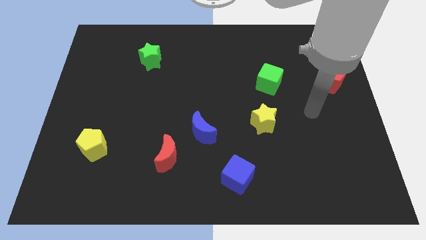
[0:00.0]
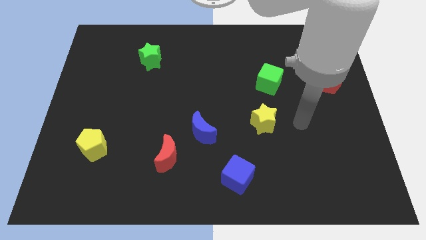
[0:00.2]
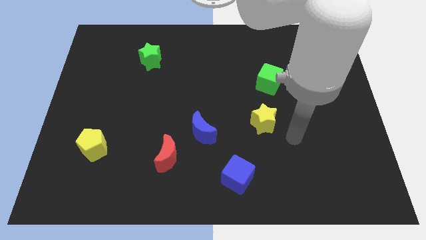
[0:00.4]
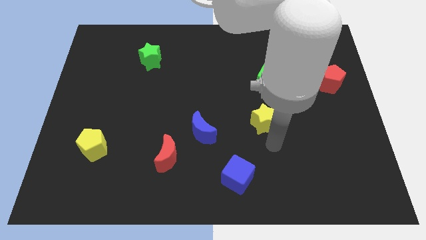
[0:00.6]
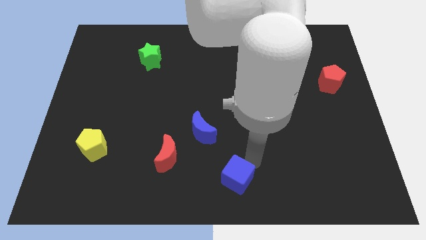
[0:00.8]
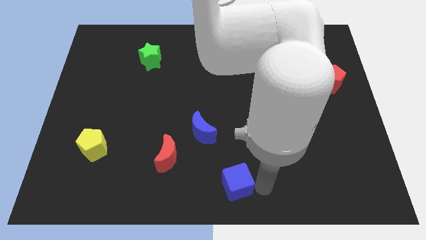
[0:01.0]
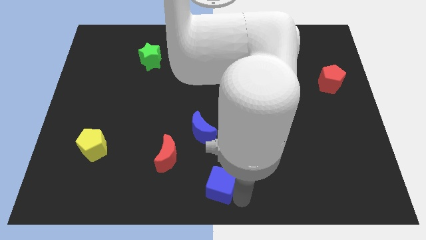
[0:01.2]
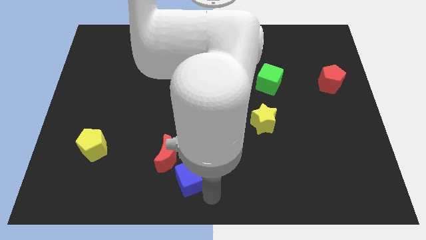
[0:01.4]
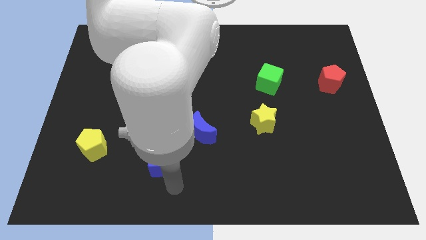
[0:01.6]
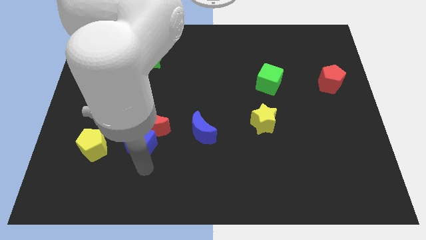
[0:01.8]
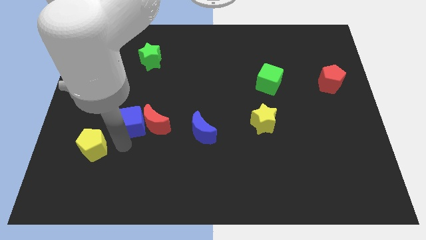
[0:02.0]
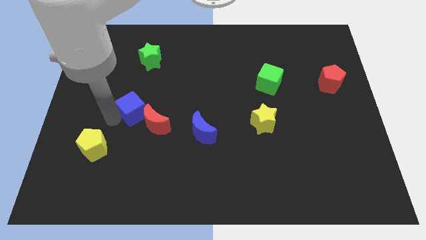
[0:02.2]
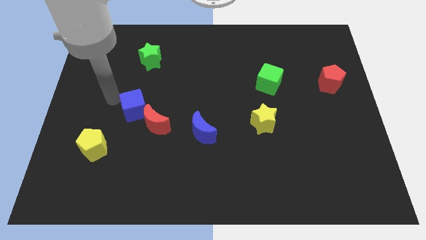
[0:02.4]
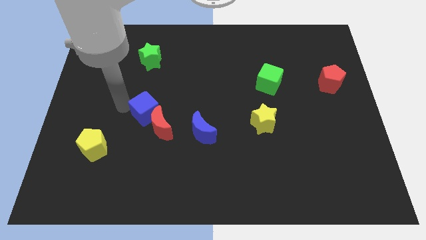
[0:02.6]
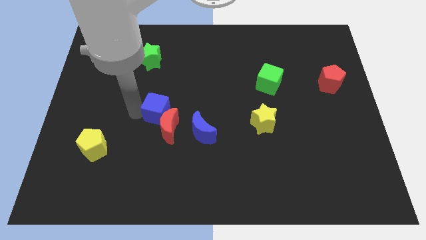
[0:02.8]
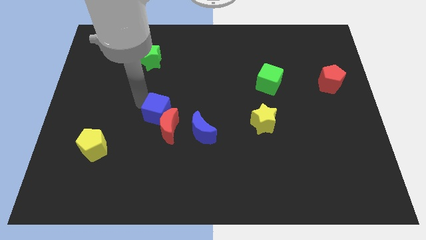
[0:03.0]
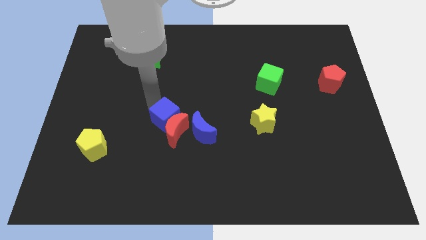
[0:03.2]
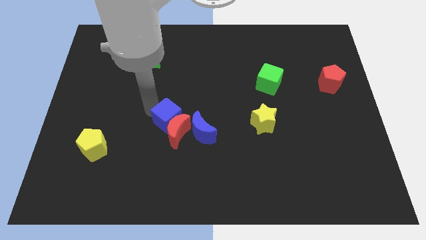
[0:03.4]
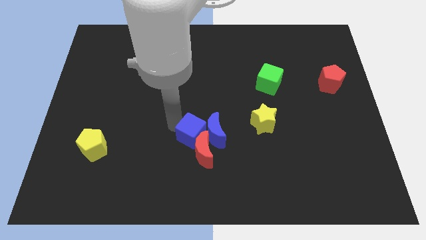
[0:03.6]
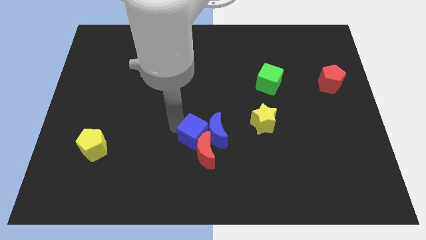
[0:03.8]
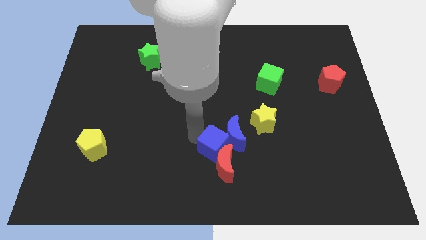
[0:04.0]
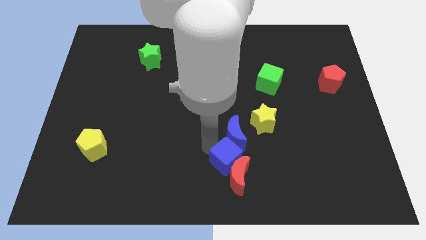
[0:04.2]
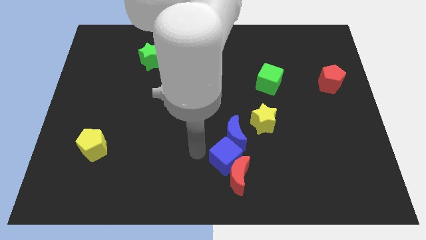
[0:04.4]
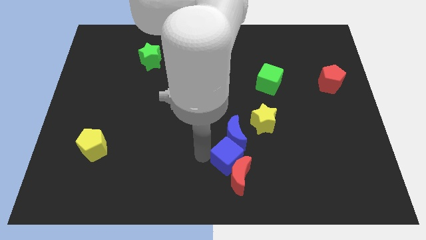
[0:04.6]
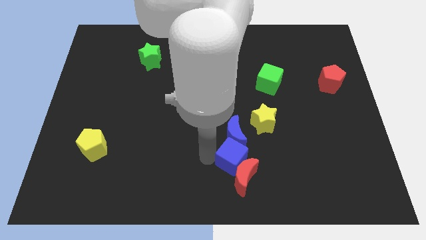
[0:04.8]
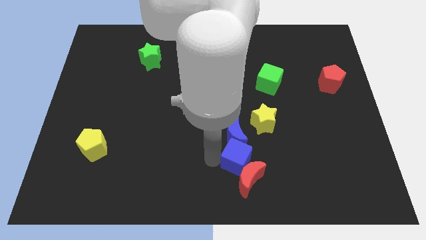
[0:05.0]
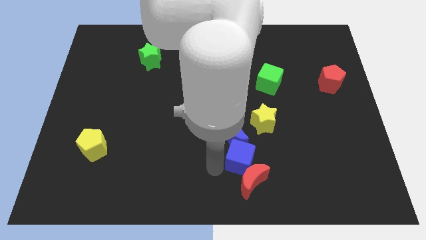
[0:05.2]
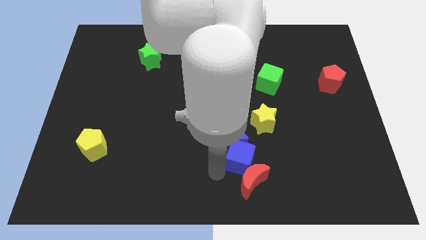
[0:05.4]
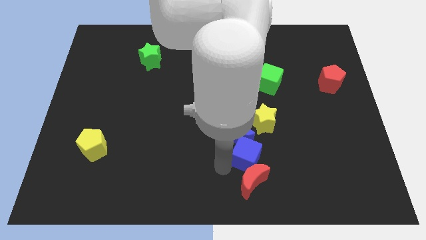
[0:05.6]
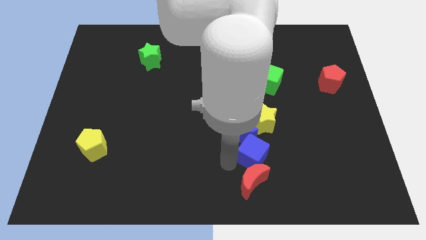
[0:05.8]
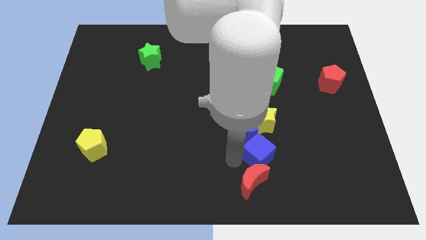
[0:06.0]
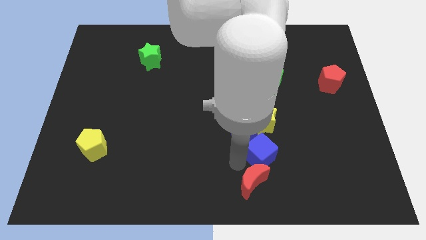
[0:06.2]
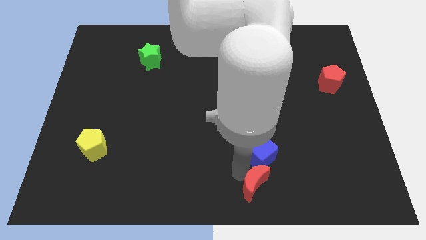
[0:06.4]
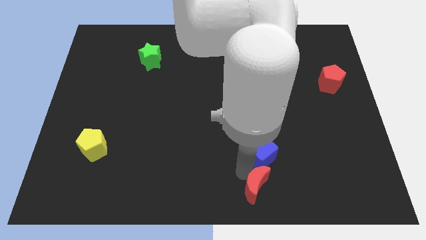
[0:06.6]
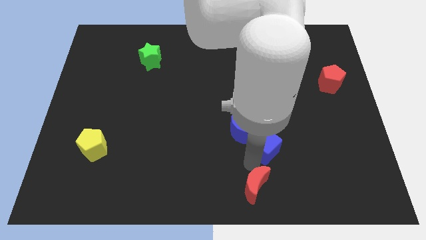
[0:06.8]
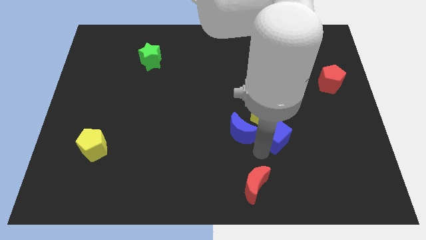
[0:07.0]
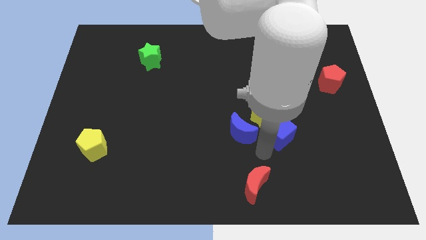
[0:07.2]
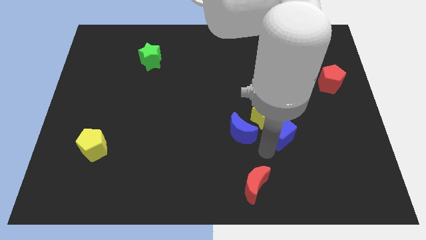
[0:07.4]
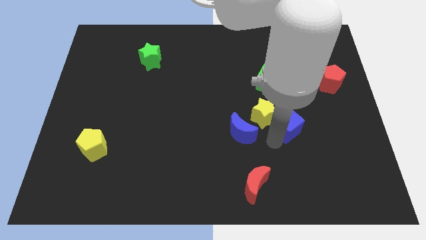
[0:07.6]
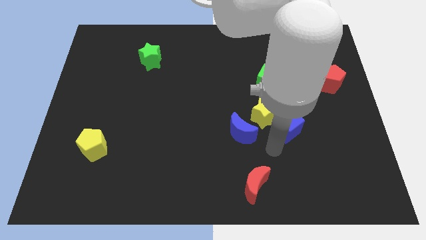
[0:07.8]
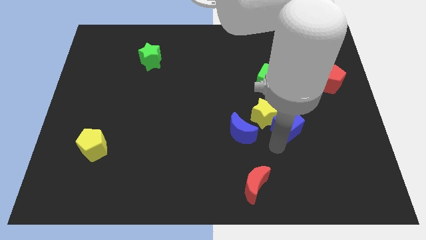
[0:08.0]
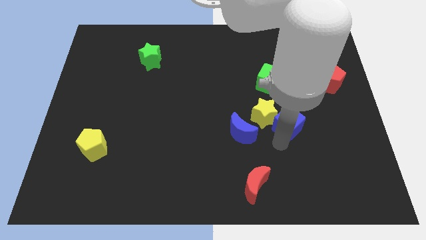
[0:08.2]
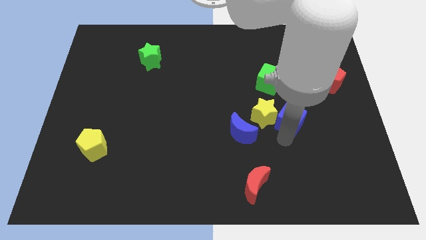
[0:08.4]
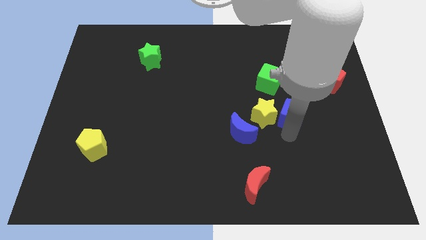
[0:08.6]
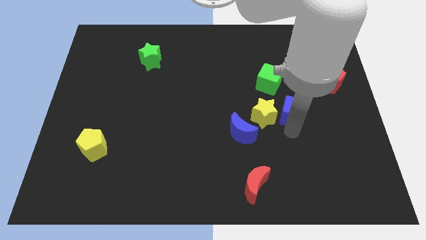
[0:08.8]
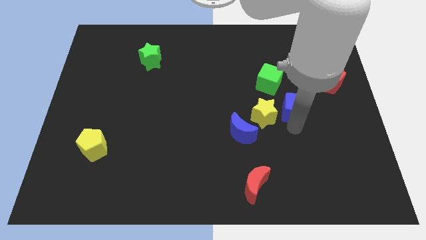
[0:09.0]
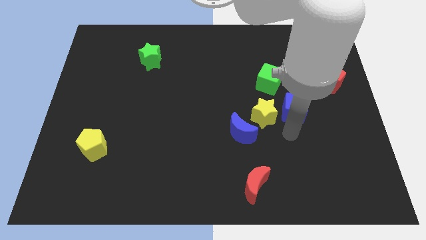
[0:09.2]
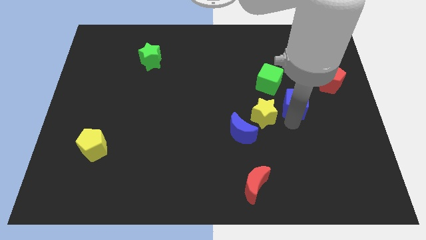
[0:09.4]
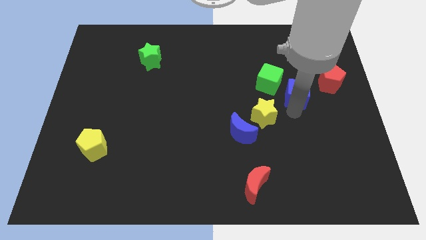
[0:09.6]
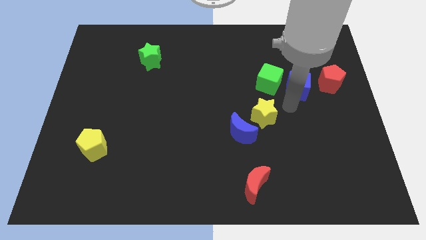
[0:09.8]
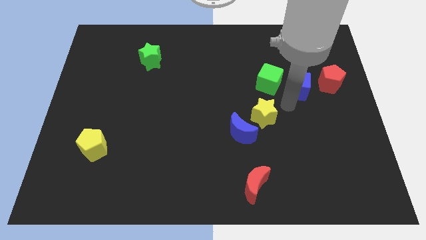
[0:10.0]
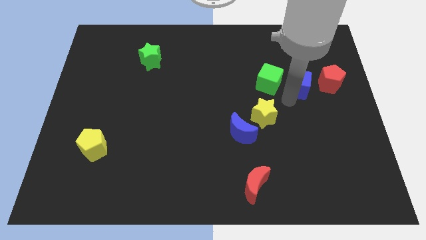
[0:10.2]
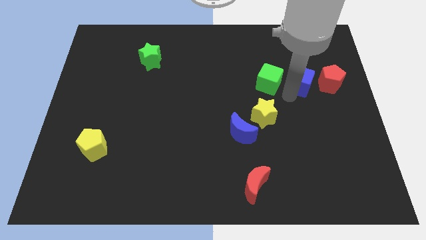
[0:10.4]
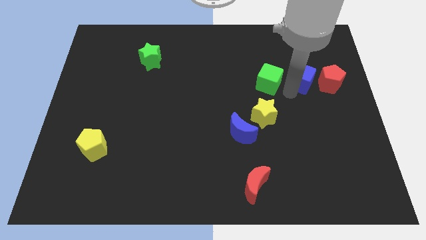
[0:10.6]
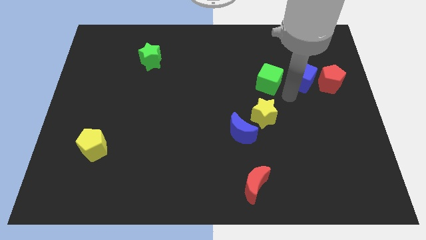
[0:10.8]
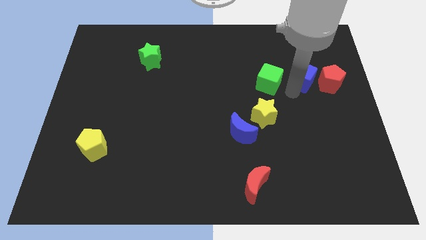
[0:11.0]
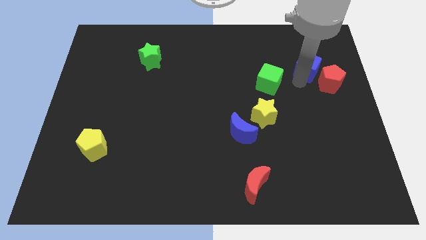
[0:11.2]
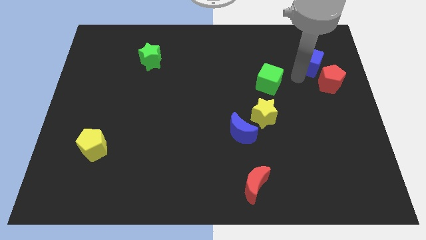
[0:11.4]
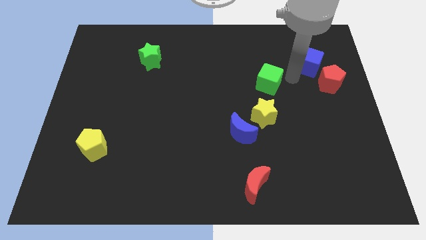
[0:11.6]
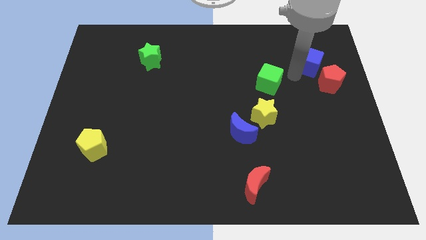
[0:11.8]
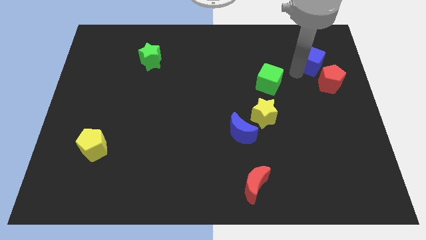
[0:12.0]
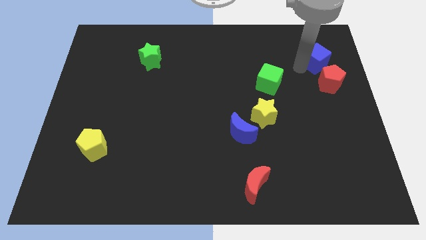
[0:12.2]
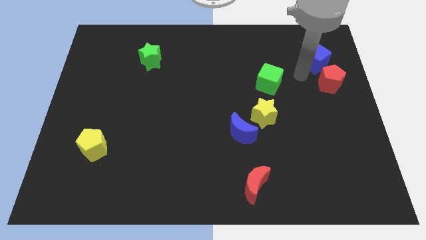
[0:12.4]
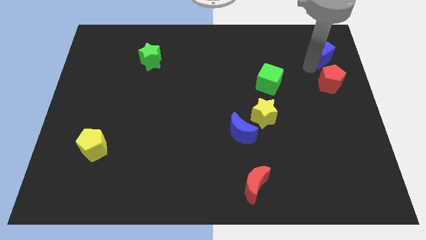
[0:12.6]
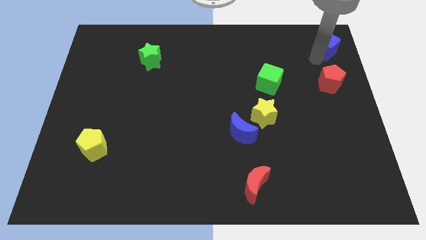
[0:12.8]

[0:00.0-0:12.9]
put the blue cube to the top right corner
